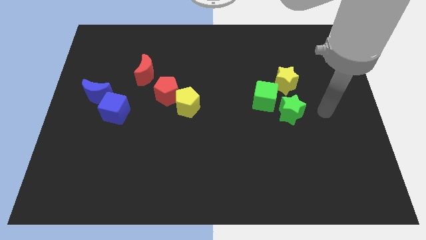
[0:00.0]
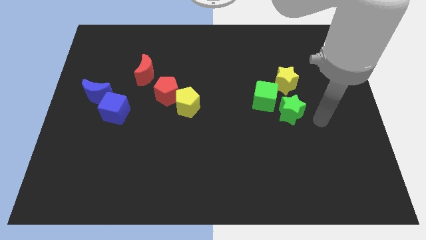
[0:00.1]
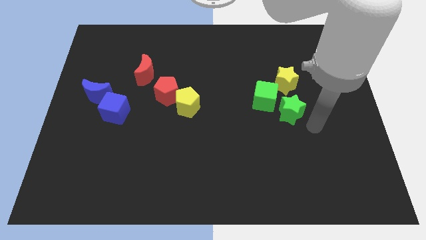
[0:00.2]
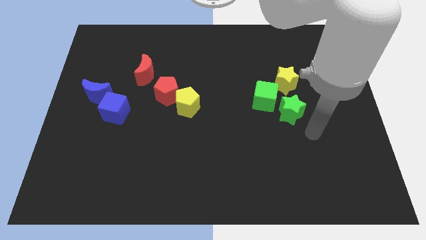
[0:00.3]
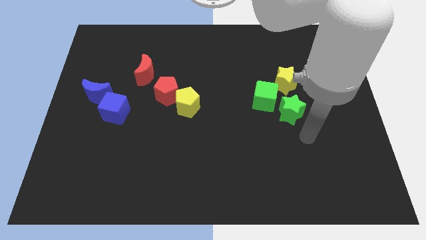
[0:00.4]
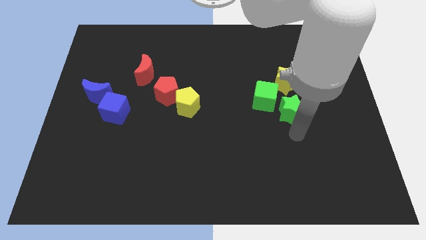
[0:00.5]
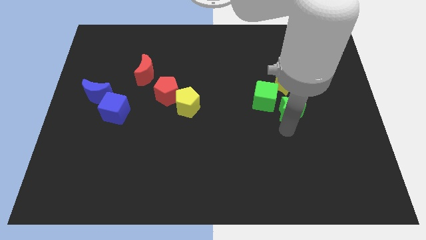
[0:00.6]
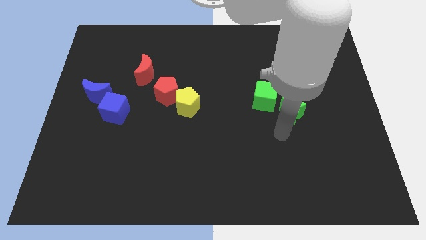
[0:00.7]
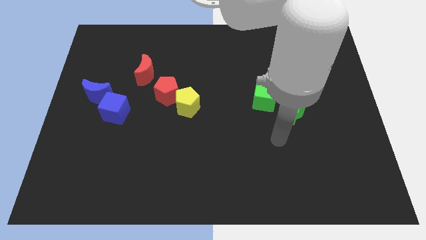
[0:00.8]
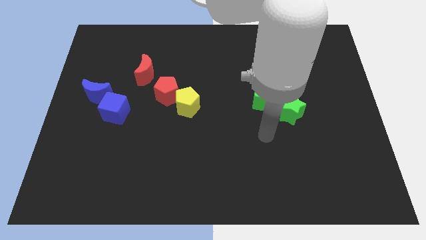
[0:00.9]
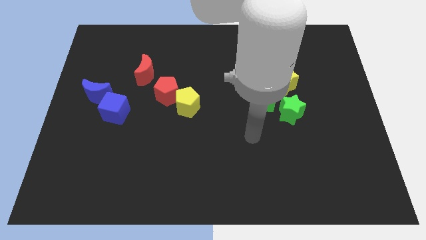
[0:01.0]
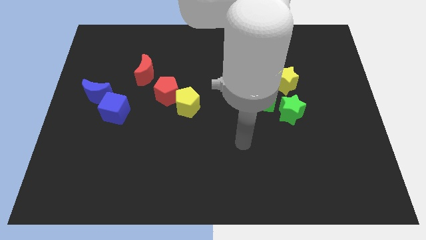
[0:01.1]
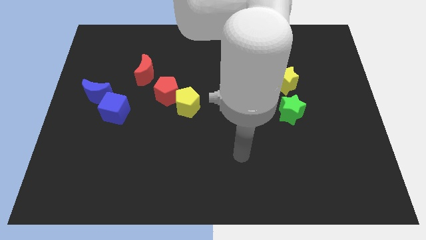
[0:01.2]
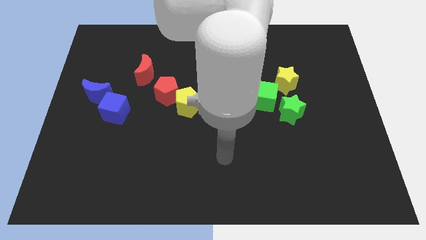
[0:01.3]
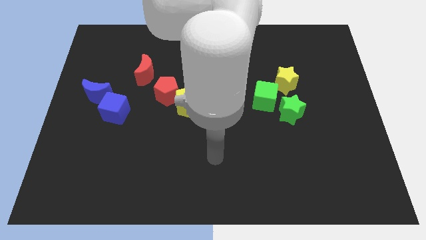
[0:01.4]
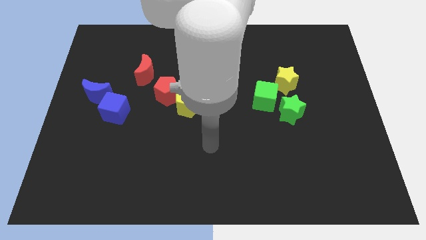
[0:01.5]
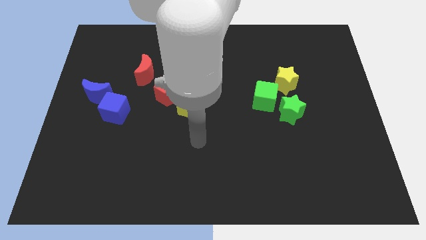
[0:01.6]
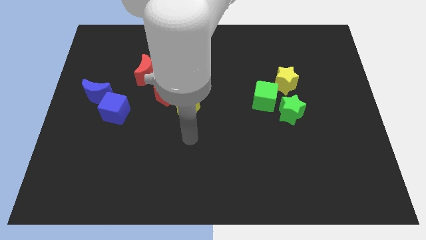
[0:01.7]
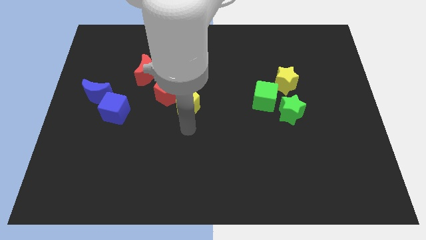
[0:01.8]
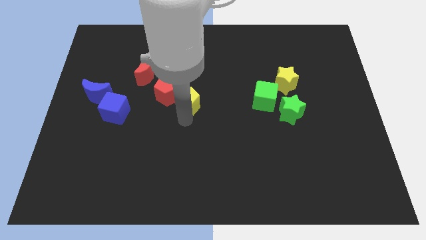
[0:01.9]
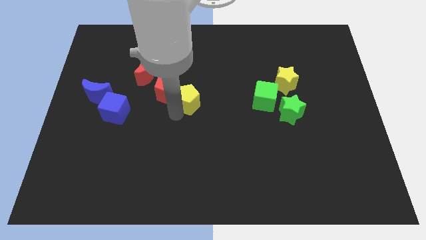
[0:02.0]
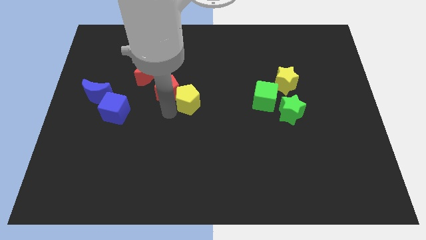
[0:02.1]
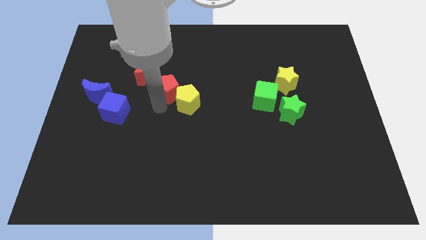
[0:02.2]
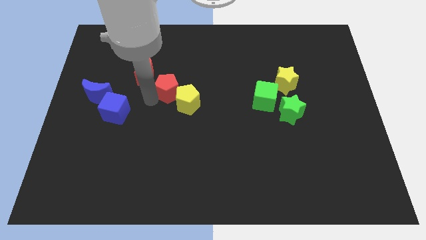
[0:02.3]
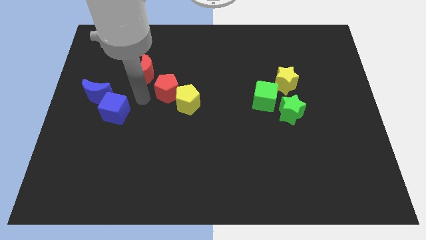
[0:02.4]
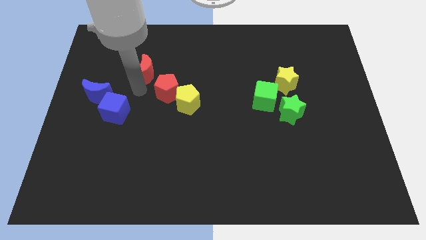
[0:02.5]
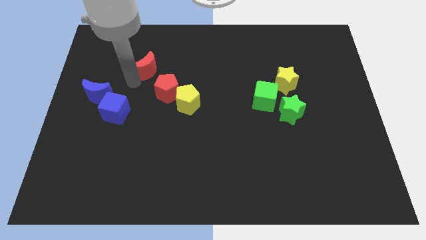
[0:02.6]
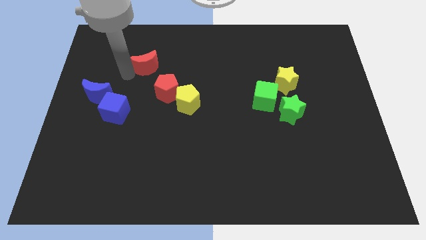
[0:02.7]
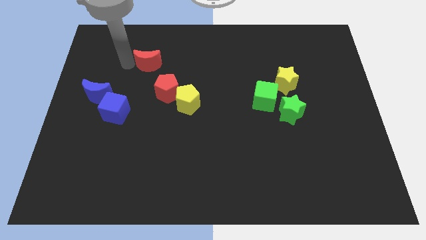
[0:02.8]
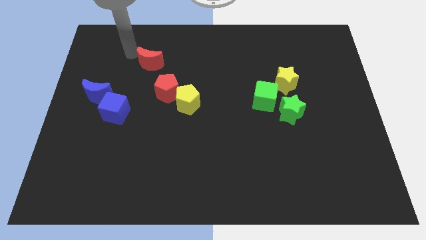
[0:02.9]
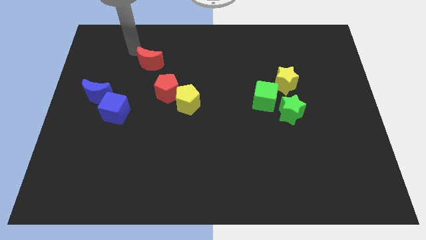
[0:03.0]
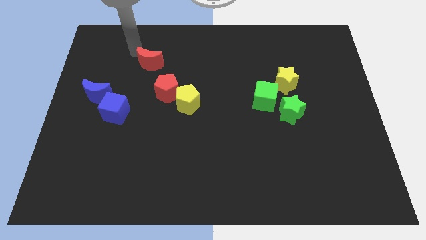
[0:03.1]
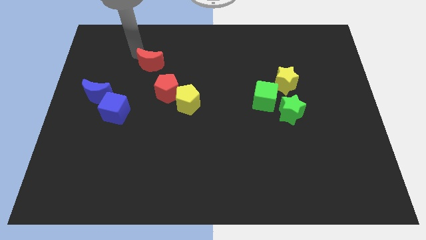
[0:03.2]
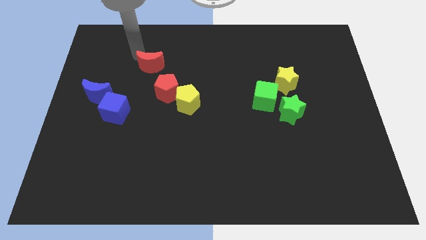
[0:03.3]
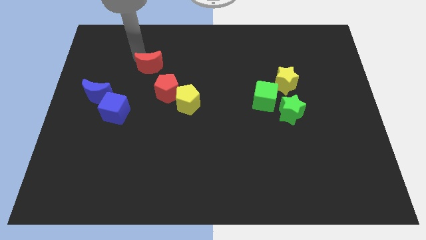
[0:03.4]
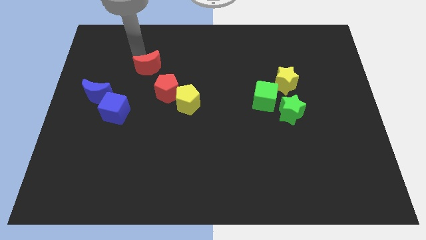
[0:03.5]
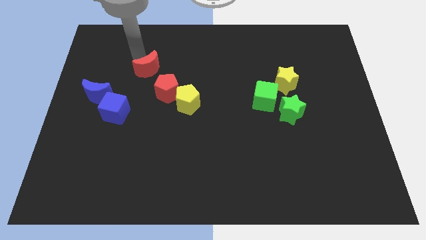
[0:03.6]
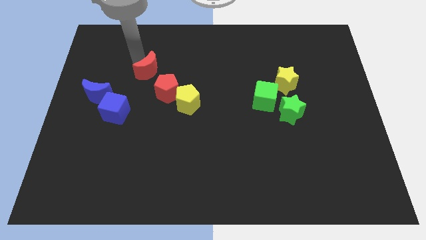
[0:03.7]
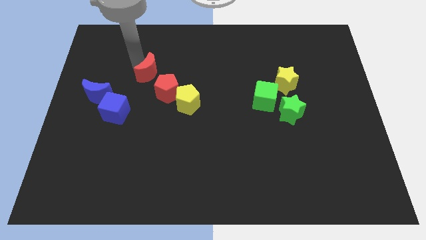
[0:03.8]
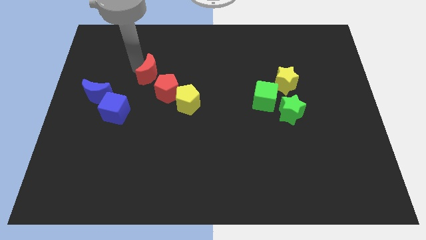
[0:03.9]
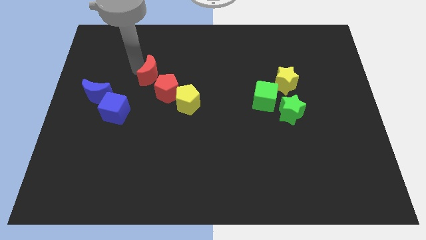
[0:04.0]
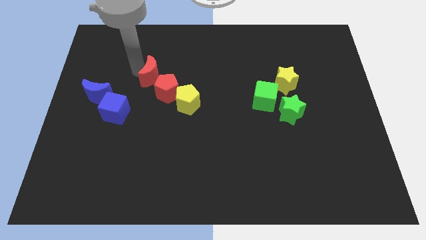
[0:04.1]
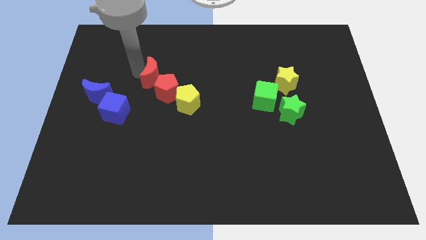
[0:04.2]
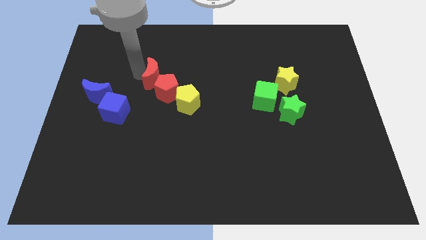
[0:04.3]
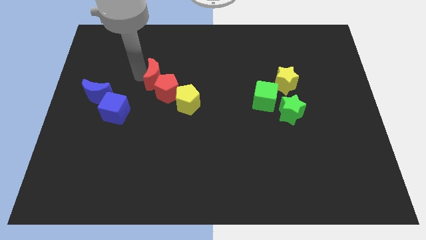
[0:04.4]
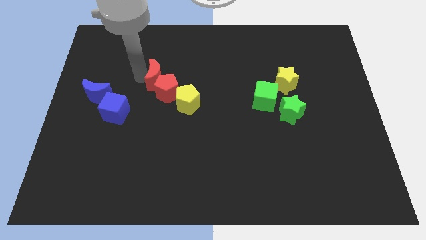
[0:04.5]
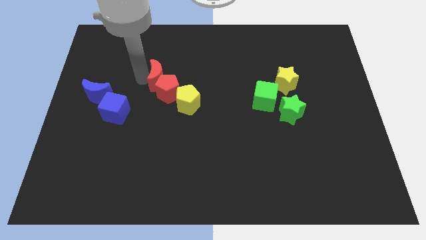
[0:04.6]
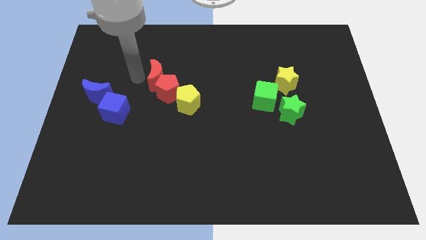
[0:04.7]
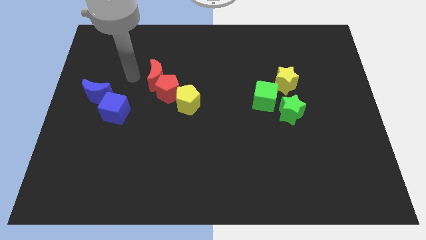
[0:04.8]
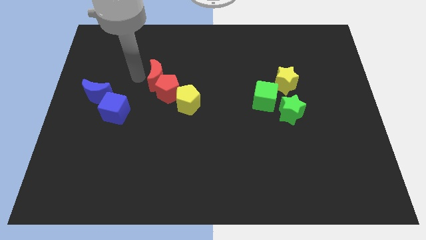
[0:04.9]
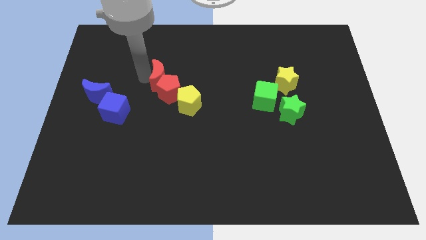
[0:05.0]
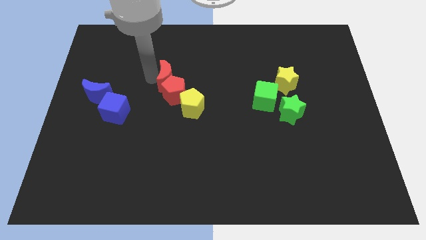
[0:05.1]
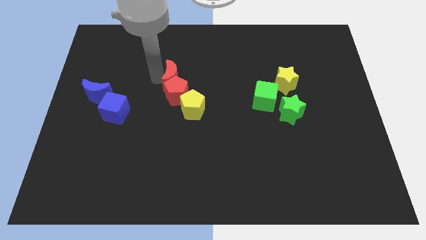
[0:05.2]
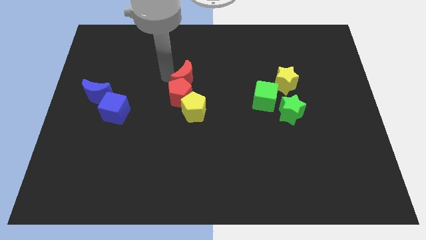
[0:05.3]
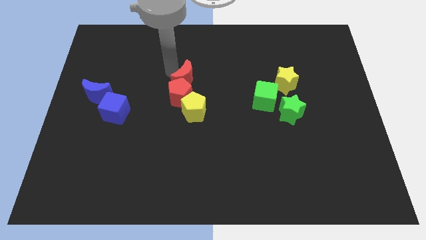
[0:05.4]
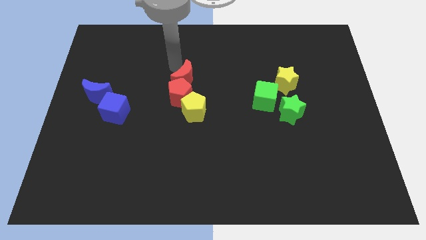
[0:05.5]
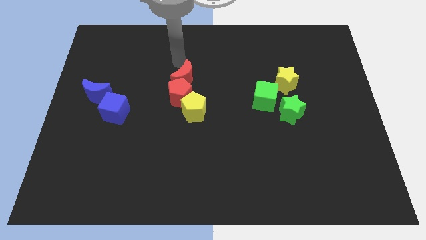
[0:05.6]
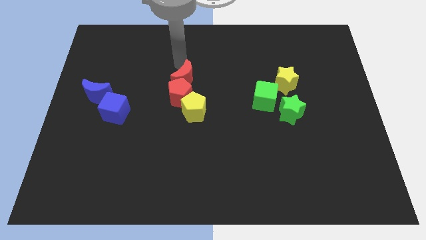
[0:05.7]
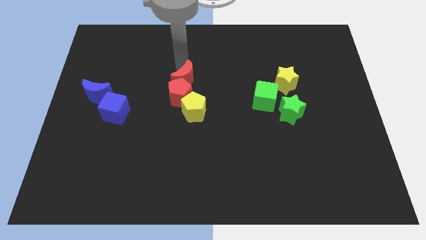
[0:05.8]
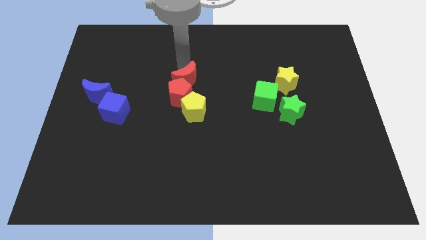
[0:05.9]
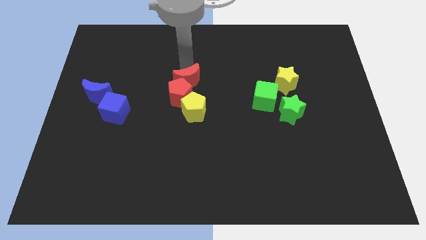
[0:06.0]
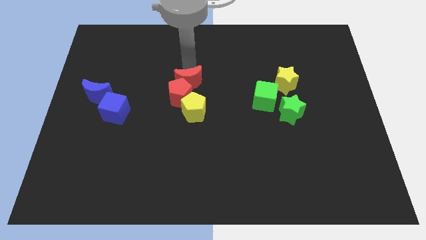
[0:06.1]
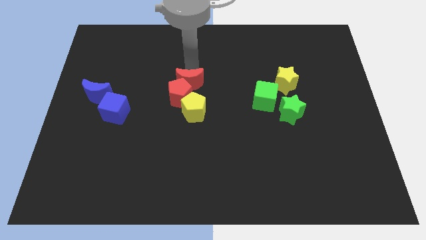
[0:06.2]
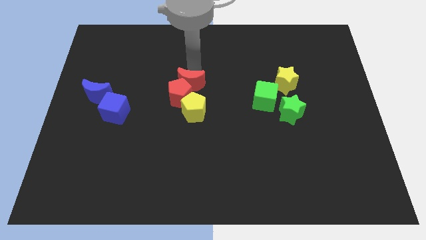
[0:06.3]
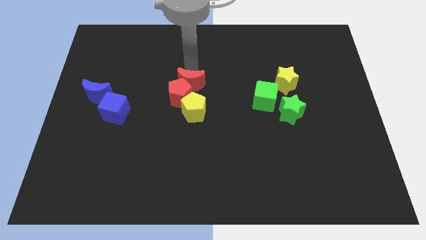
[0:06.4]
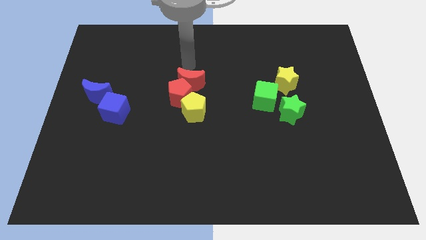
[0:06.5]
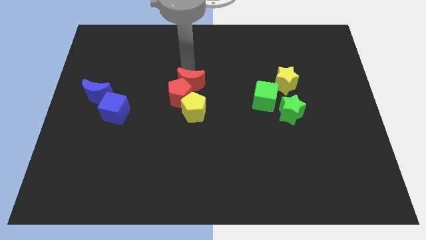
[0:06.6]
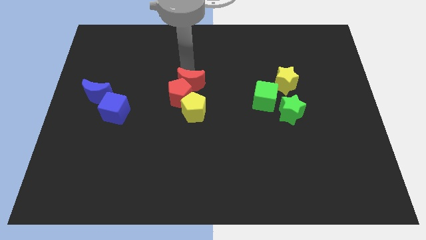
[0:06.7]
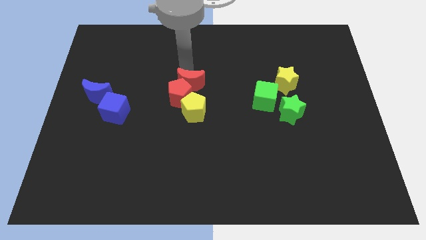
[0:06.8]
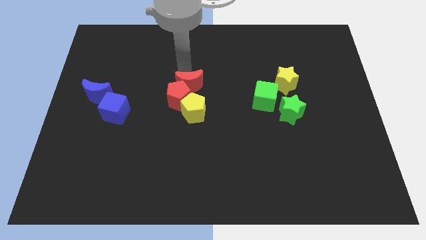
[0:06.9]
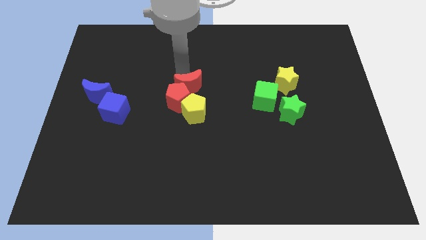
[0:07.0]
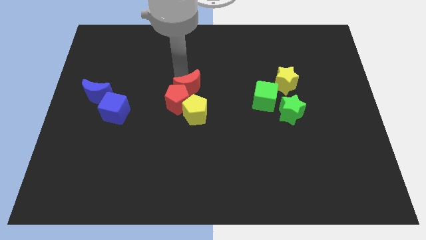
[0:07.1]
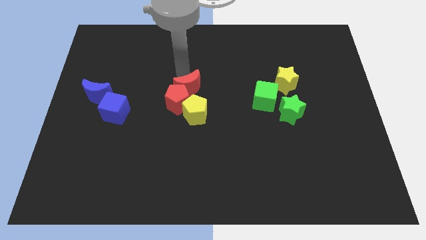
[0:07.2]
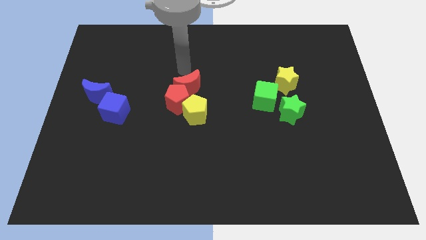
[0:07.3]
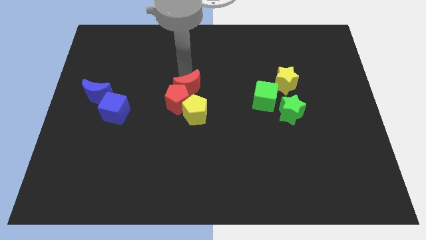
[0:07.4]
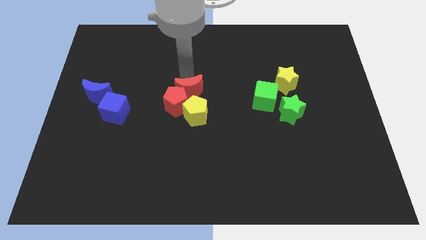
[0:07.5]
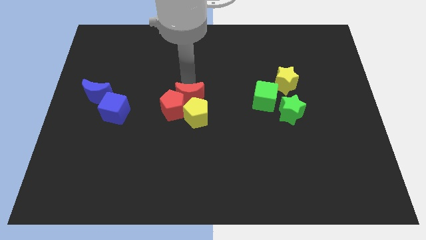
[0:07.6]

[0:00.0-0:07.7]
move the red moon to the yellow pentagon

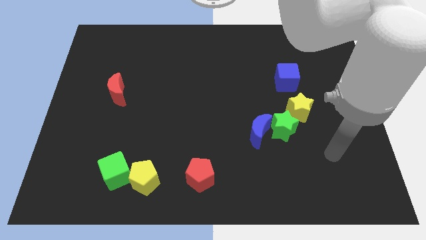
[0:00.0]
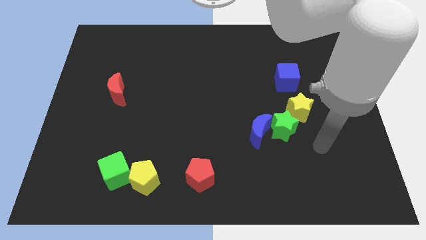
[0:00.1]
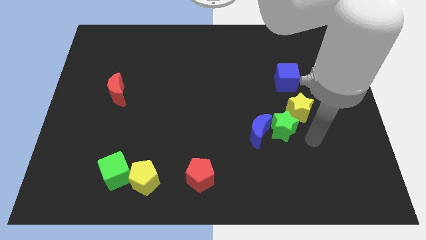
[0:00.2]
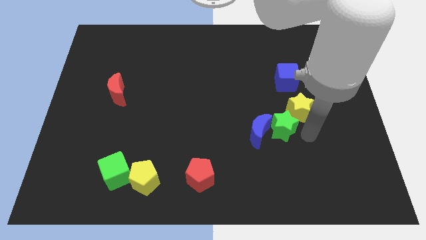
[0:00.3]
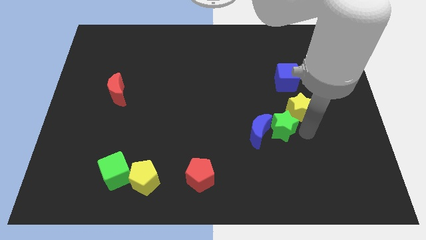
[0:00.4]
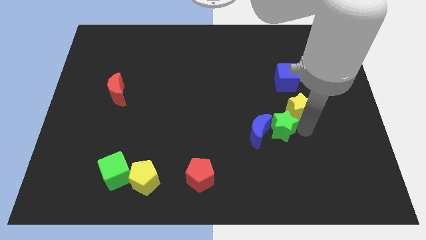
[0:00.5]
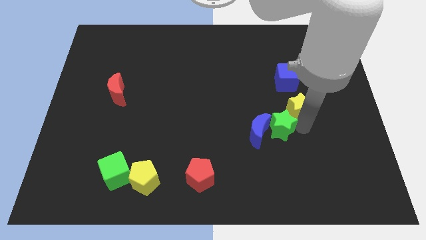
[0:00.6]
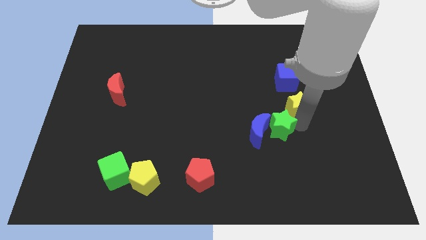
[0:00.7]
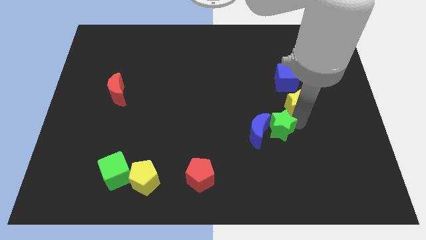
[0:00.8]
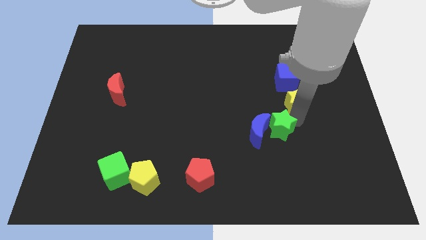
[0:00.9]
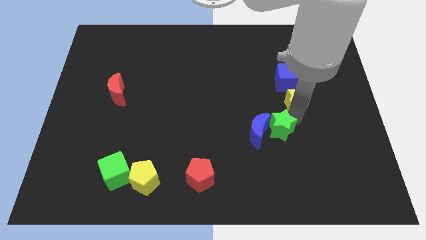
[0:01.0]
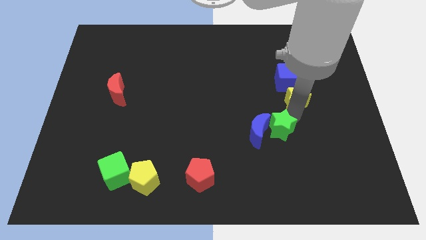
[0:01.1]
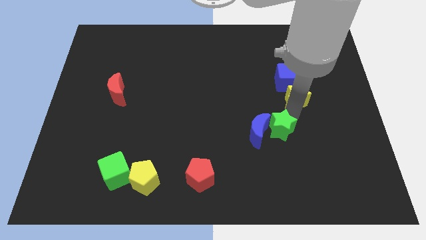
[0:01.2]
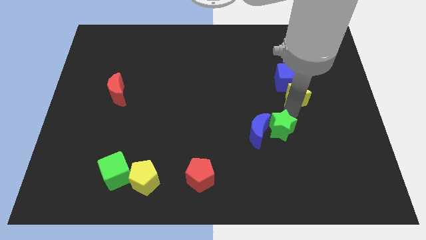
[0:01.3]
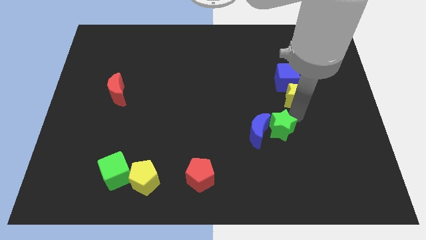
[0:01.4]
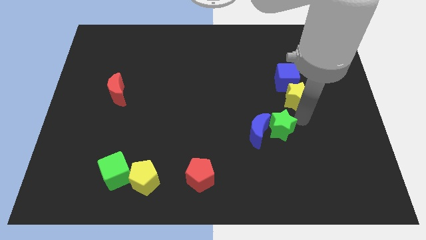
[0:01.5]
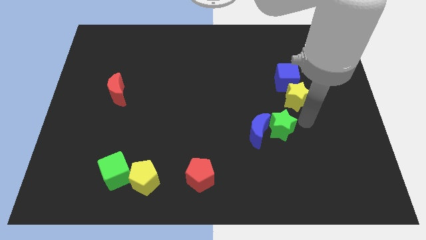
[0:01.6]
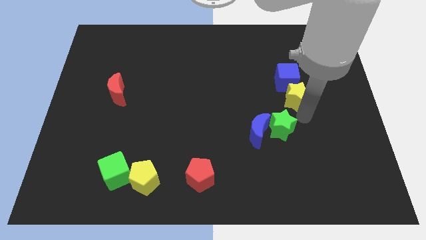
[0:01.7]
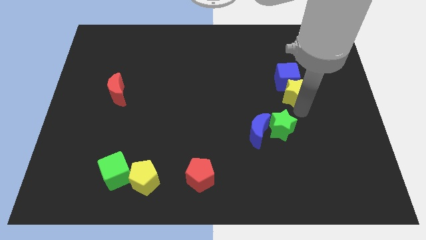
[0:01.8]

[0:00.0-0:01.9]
push the yellow star towards the blue cube
